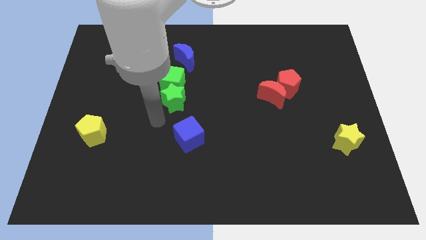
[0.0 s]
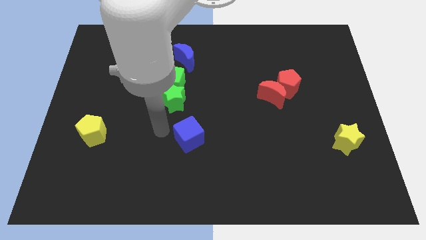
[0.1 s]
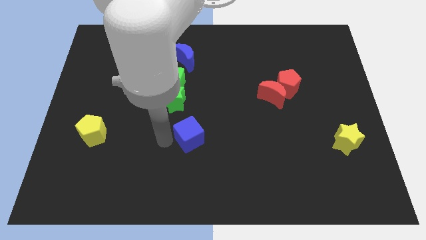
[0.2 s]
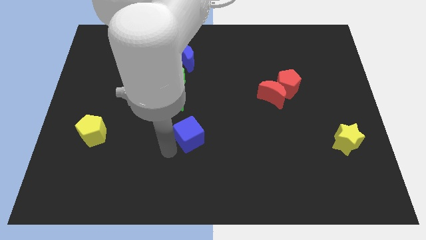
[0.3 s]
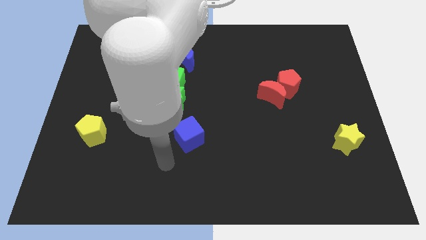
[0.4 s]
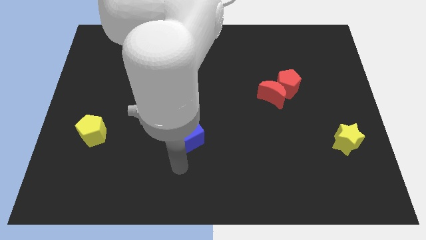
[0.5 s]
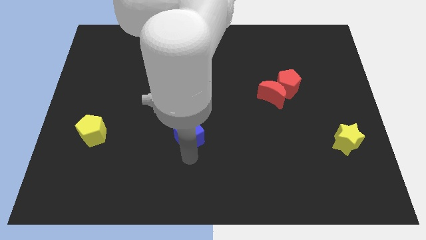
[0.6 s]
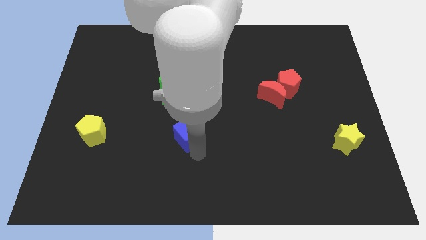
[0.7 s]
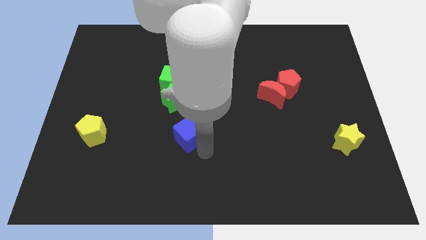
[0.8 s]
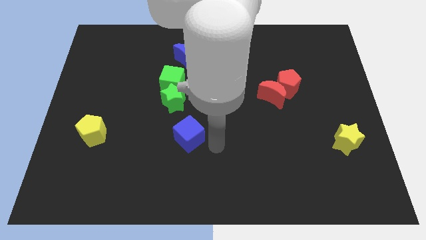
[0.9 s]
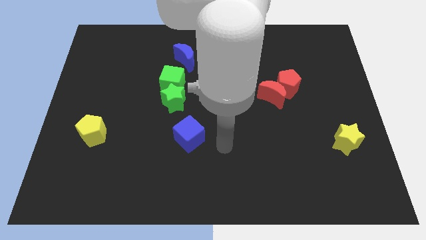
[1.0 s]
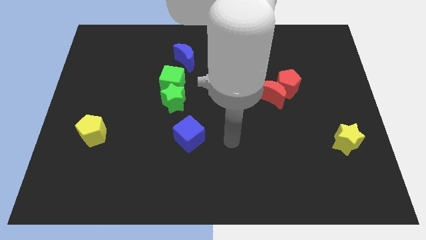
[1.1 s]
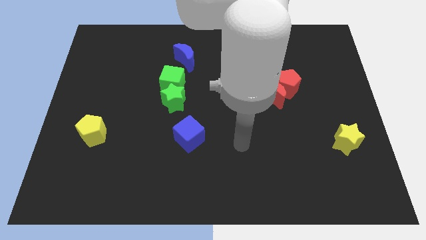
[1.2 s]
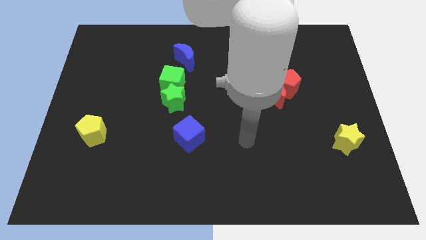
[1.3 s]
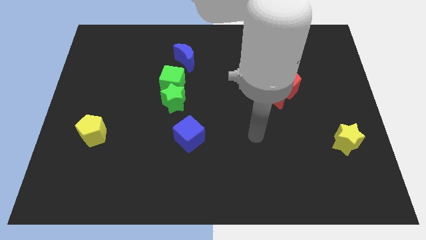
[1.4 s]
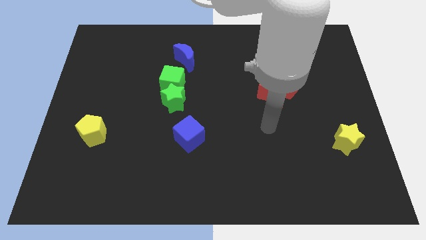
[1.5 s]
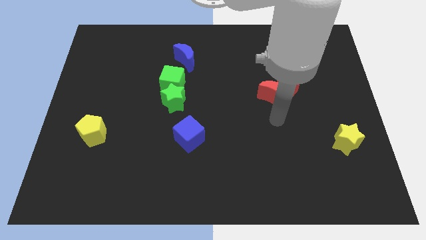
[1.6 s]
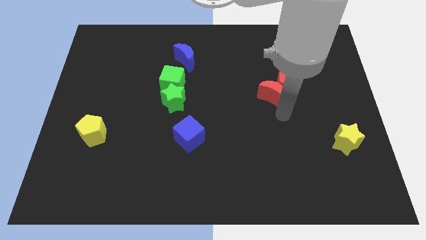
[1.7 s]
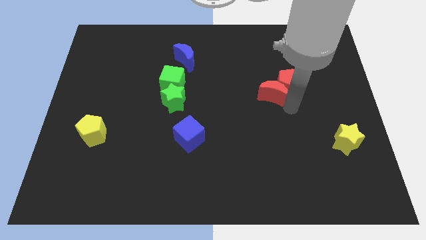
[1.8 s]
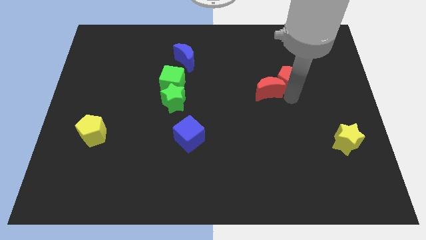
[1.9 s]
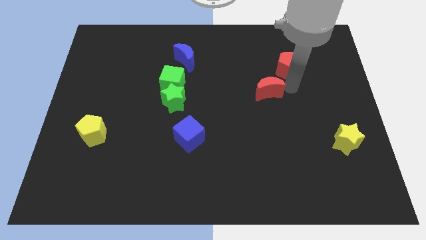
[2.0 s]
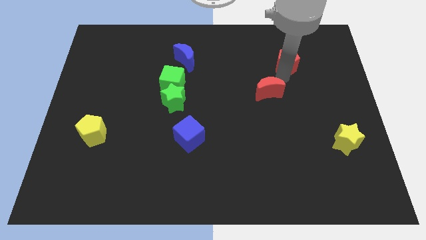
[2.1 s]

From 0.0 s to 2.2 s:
pull the red moon apart from the red pentagon

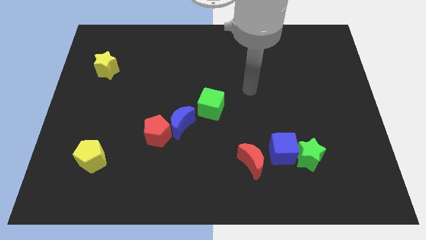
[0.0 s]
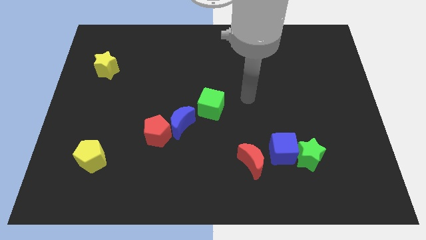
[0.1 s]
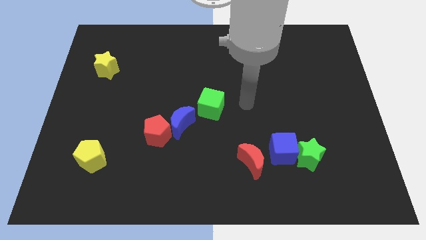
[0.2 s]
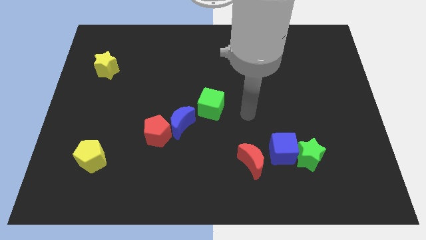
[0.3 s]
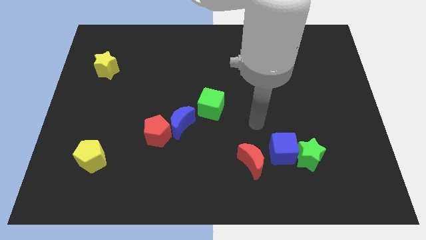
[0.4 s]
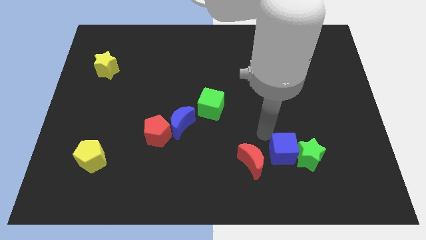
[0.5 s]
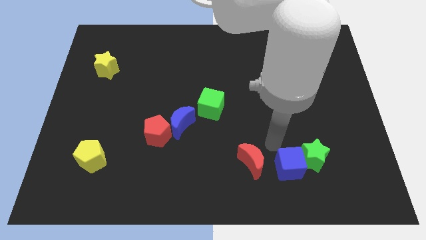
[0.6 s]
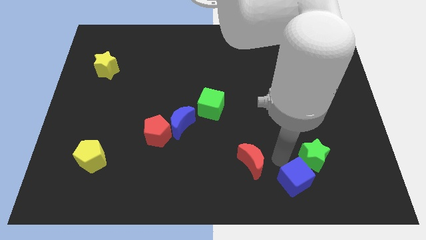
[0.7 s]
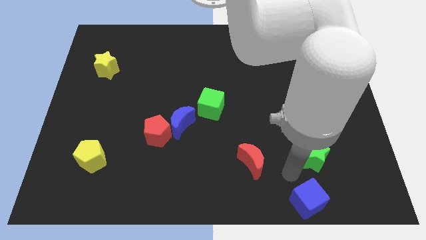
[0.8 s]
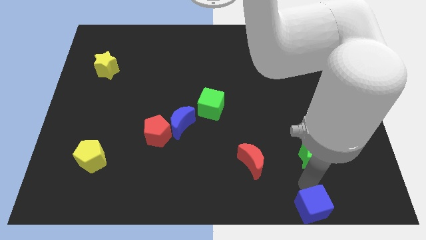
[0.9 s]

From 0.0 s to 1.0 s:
separate the green star from the blue cube

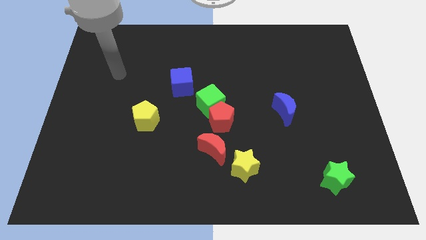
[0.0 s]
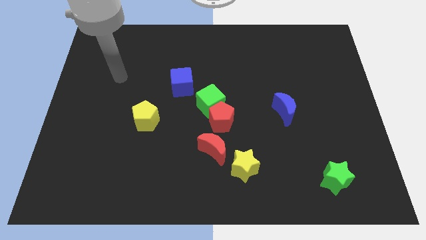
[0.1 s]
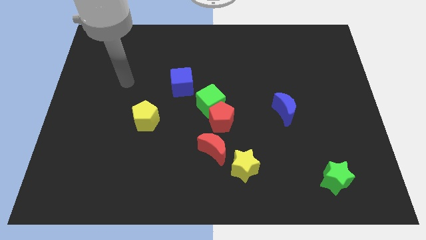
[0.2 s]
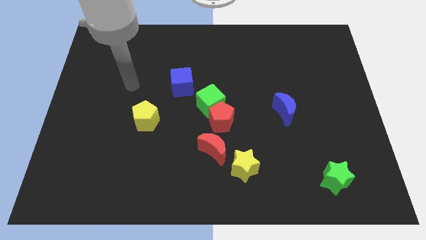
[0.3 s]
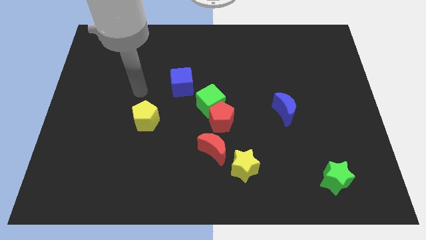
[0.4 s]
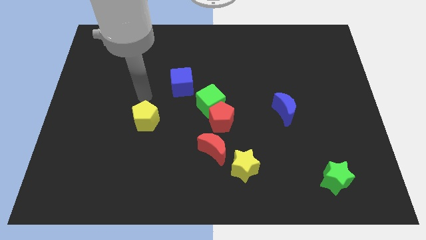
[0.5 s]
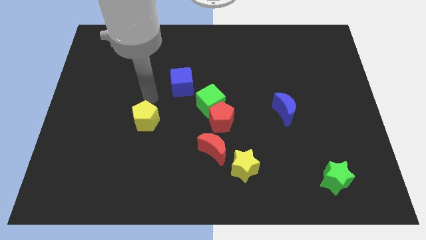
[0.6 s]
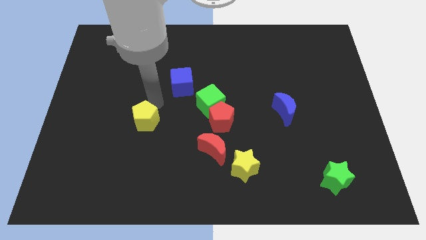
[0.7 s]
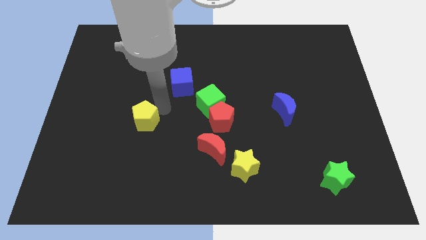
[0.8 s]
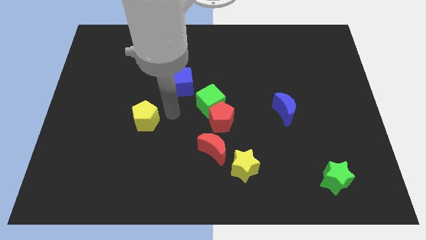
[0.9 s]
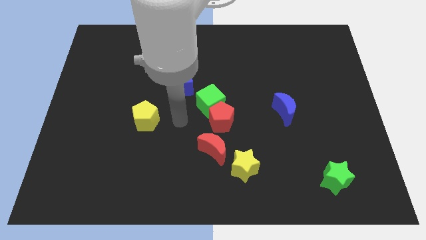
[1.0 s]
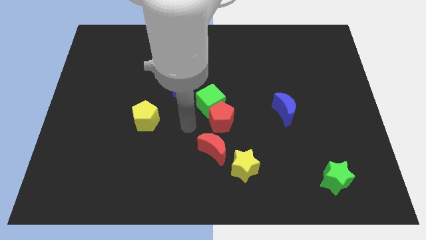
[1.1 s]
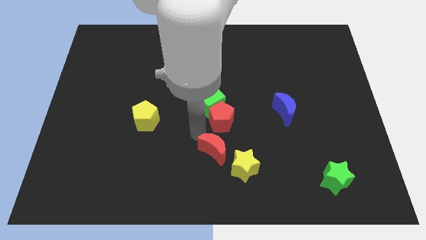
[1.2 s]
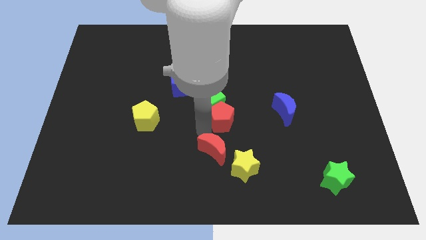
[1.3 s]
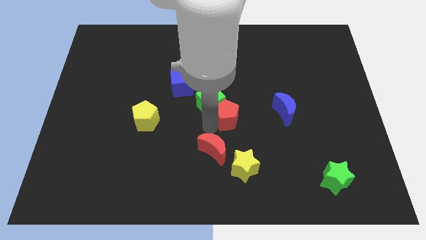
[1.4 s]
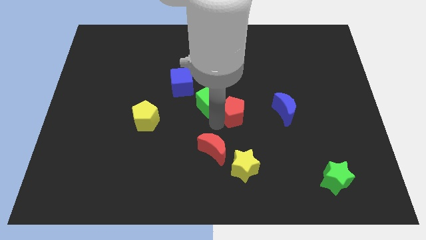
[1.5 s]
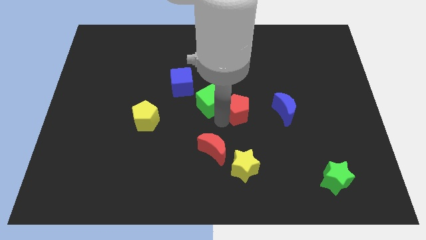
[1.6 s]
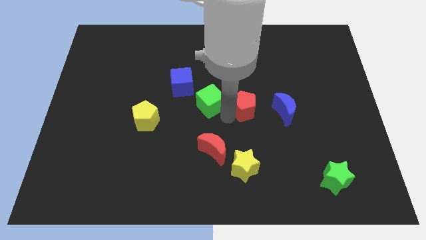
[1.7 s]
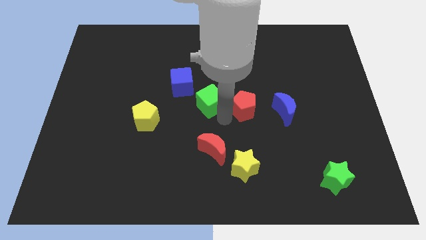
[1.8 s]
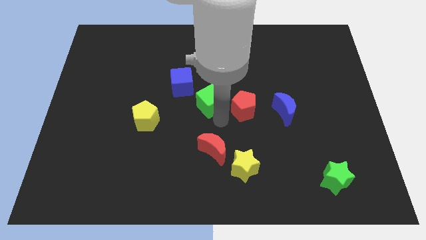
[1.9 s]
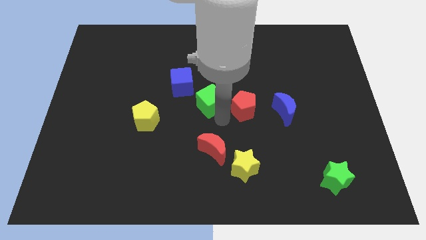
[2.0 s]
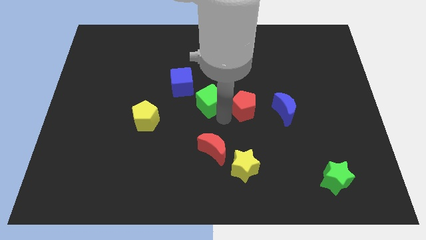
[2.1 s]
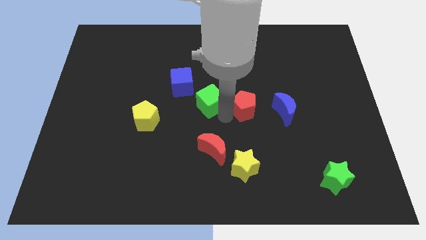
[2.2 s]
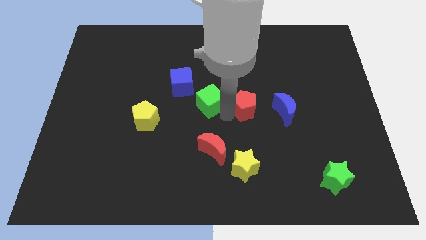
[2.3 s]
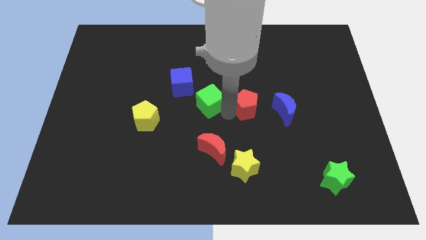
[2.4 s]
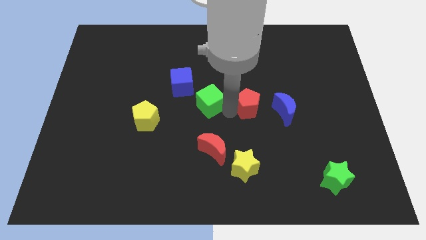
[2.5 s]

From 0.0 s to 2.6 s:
move the red pentagon away from the green cube and red moon

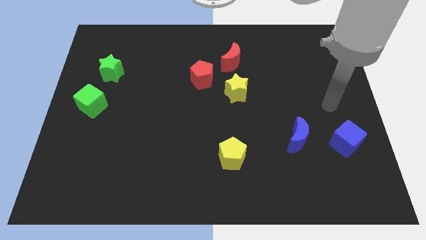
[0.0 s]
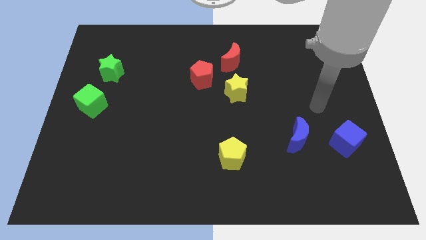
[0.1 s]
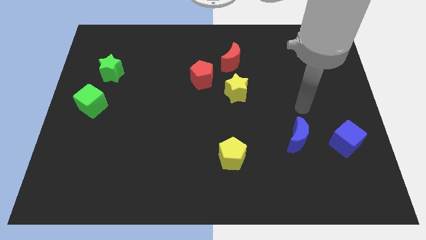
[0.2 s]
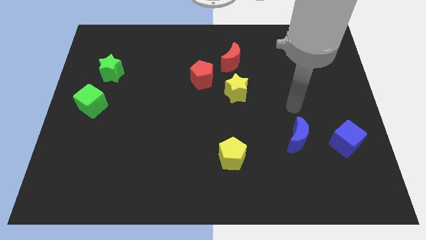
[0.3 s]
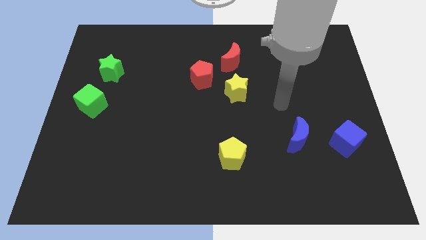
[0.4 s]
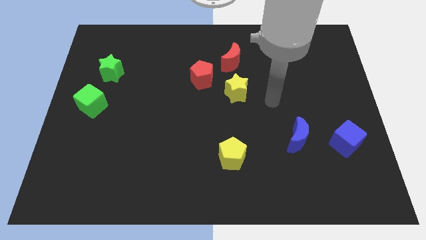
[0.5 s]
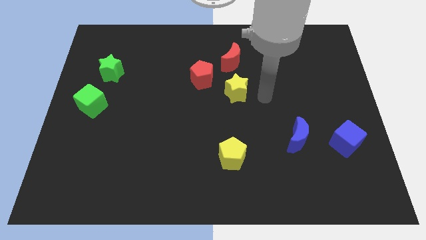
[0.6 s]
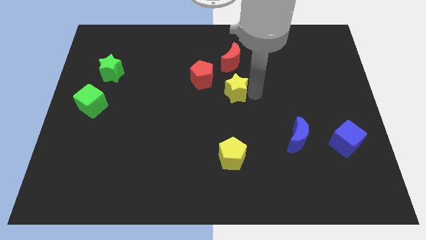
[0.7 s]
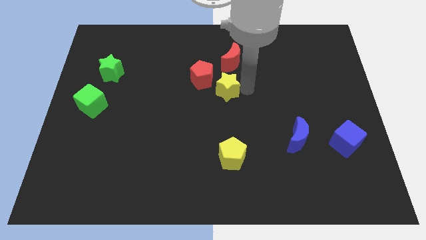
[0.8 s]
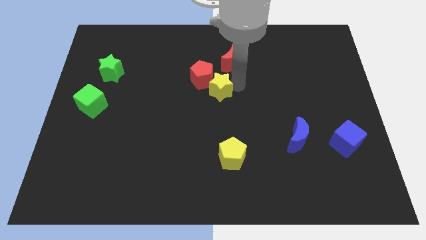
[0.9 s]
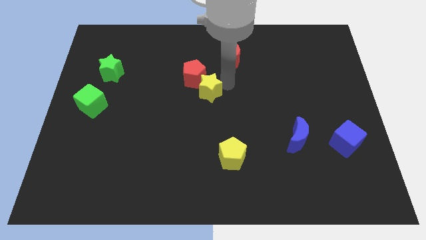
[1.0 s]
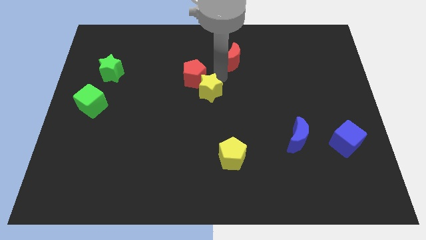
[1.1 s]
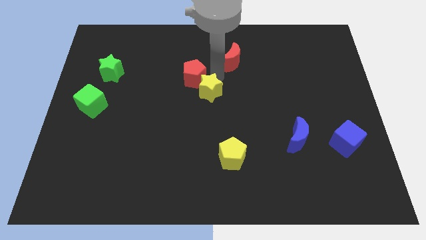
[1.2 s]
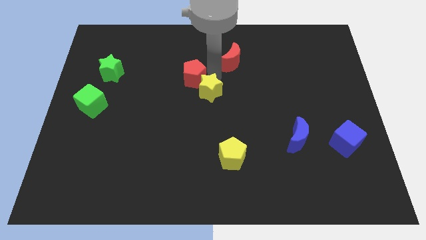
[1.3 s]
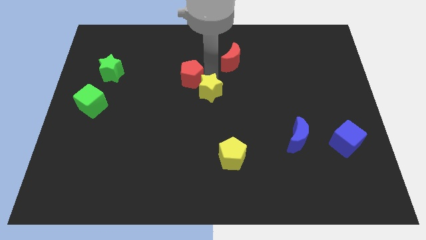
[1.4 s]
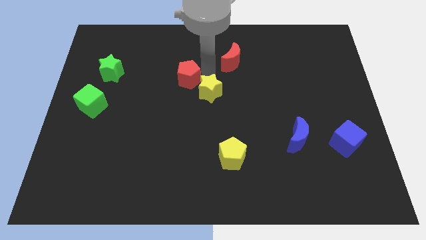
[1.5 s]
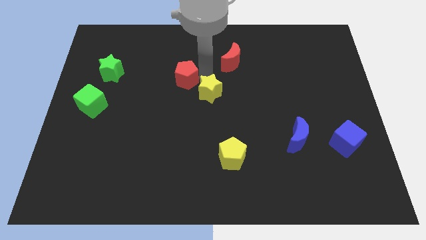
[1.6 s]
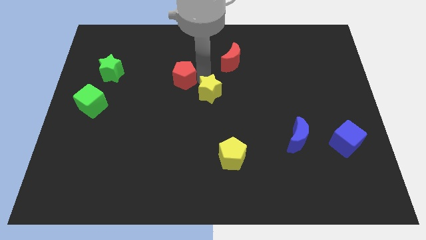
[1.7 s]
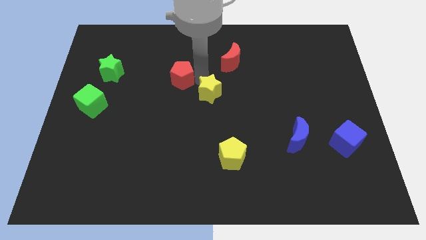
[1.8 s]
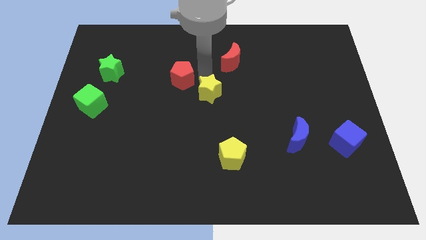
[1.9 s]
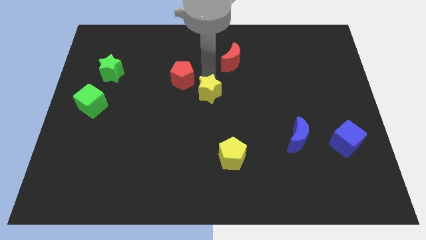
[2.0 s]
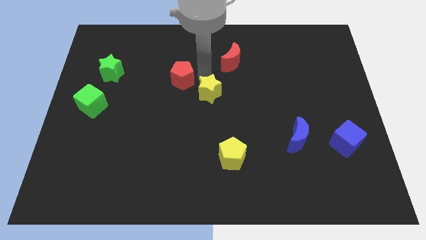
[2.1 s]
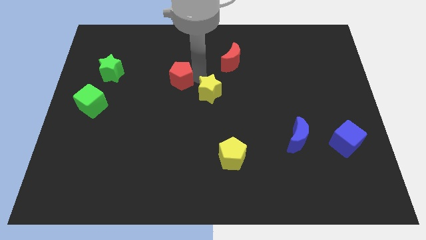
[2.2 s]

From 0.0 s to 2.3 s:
separate the red pentagon from the red moon and yellow star

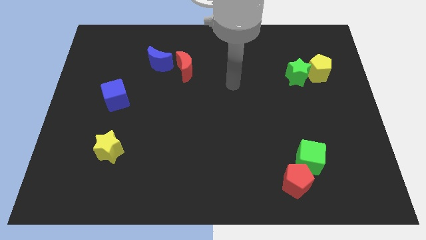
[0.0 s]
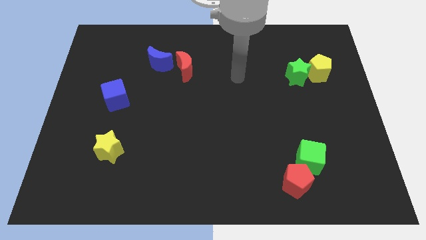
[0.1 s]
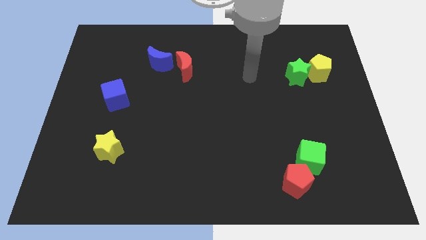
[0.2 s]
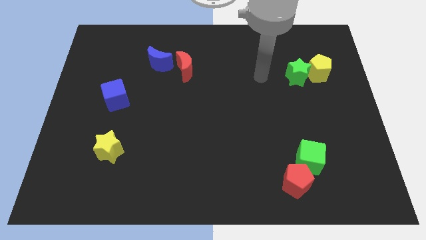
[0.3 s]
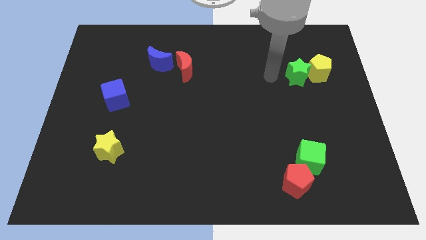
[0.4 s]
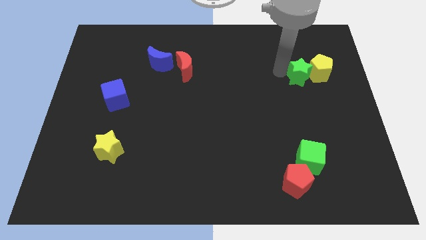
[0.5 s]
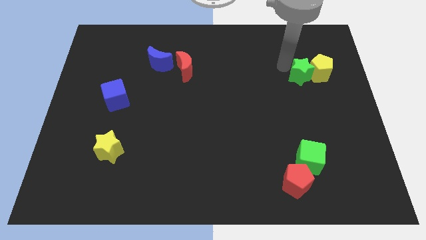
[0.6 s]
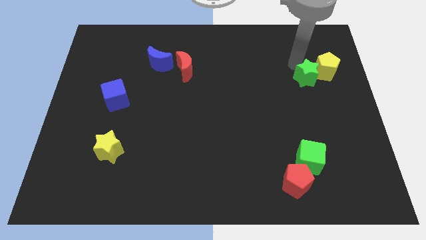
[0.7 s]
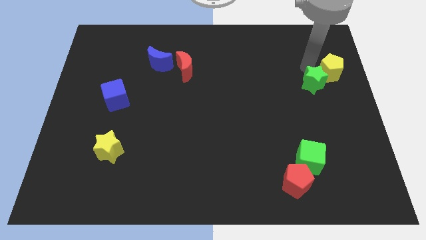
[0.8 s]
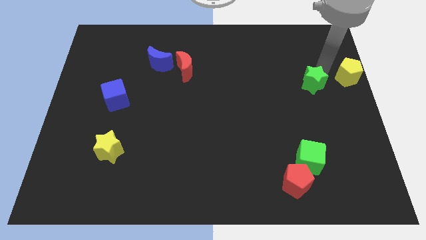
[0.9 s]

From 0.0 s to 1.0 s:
separate the green star from the yellow pentagon

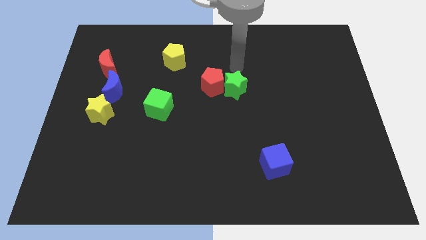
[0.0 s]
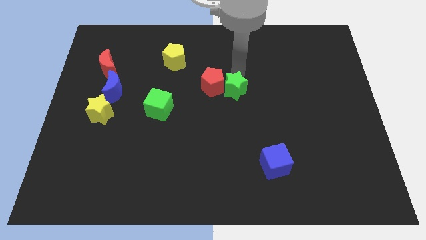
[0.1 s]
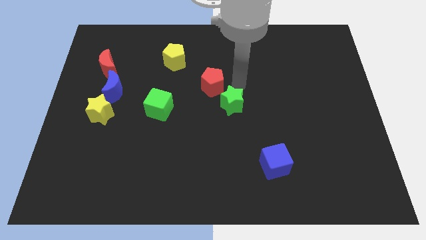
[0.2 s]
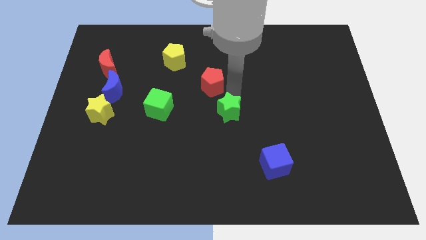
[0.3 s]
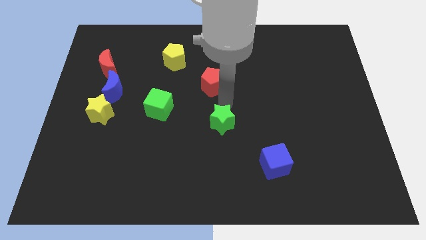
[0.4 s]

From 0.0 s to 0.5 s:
move the red pentagon away from the green star
